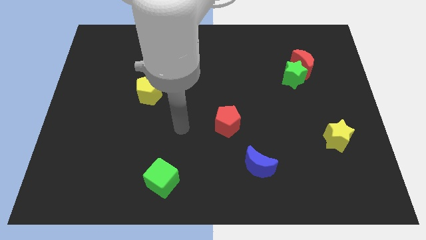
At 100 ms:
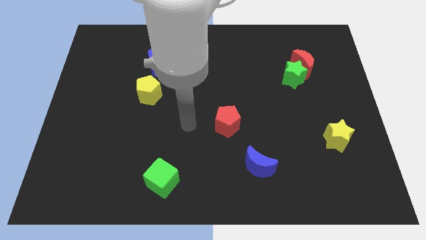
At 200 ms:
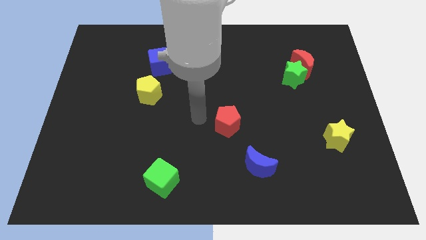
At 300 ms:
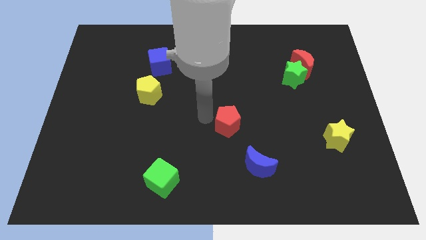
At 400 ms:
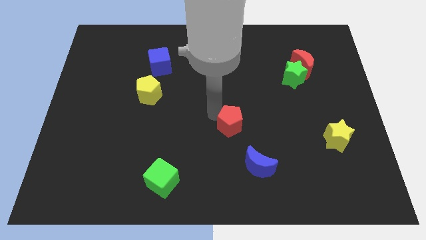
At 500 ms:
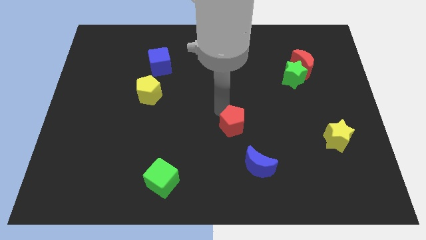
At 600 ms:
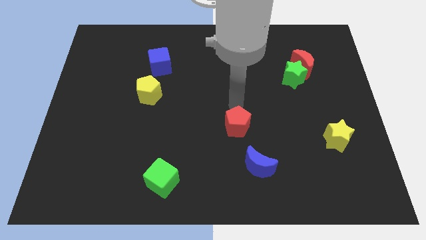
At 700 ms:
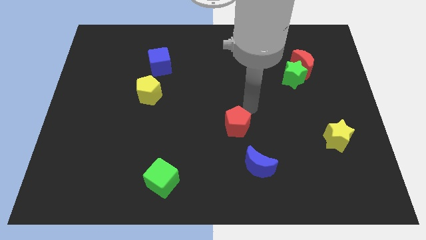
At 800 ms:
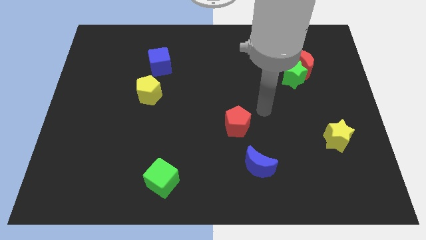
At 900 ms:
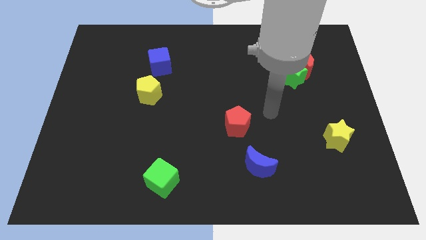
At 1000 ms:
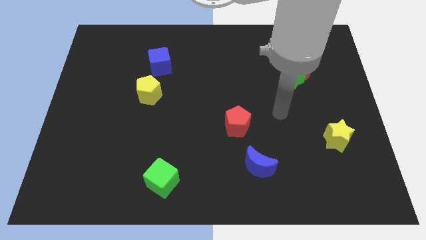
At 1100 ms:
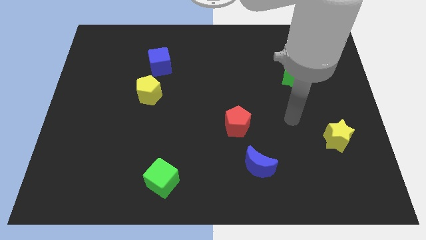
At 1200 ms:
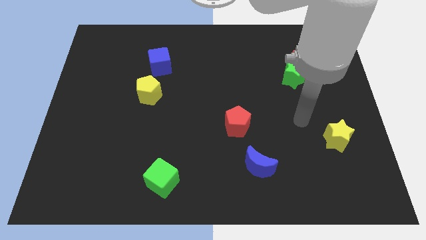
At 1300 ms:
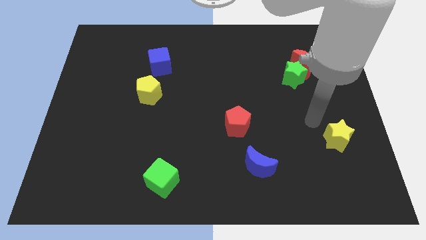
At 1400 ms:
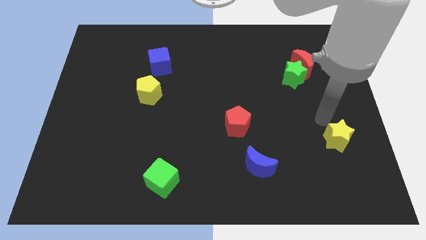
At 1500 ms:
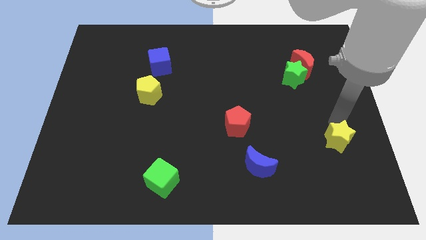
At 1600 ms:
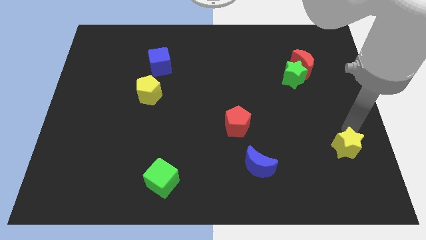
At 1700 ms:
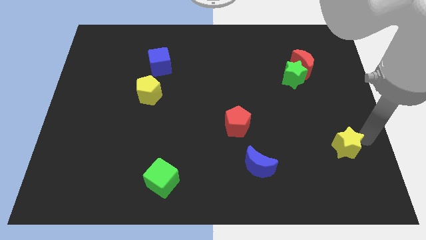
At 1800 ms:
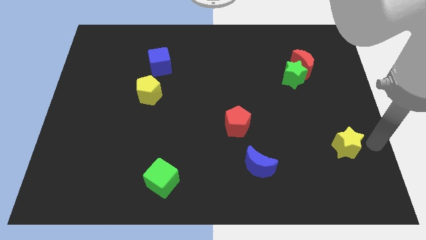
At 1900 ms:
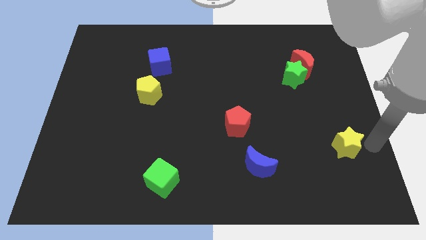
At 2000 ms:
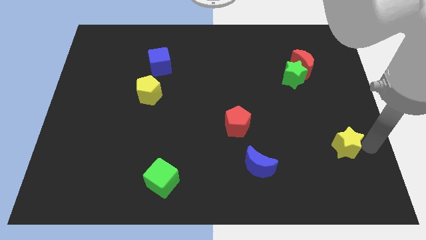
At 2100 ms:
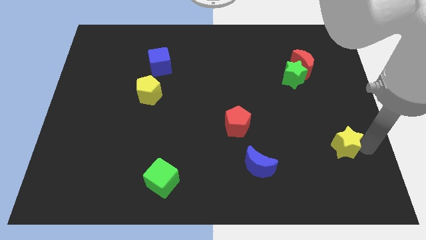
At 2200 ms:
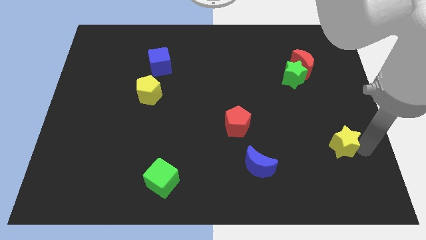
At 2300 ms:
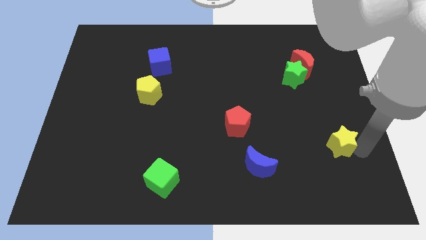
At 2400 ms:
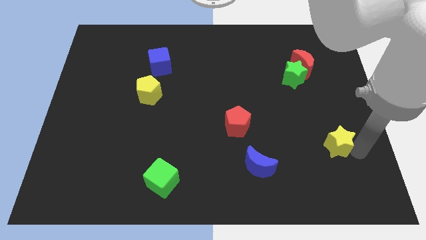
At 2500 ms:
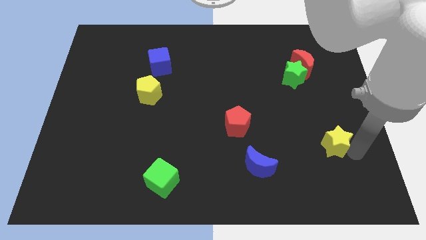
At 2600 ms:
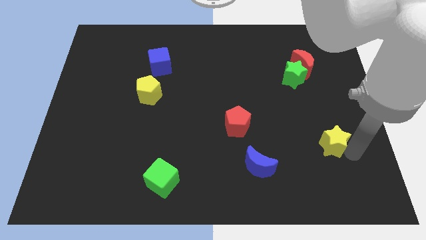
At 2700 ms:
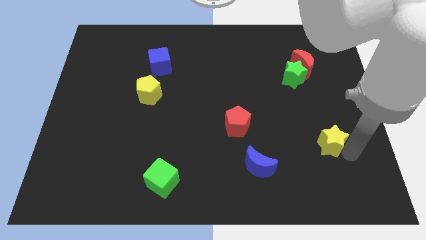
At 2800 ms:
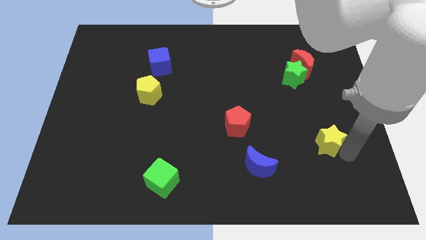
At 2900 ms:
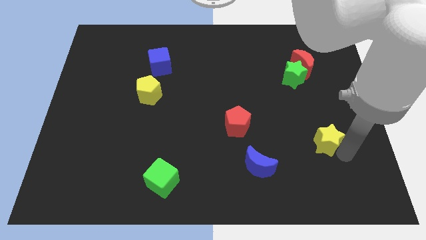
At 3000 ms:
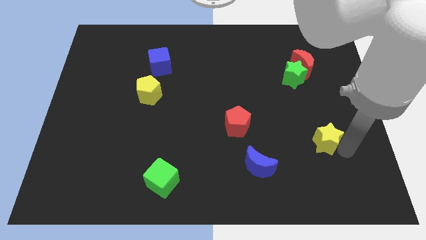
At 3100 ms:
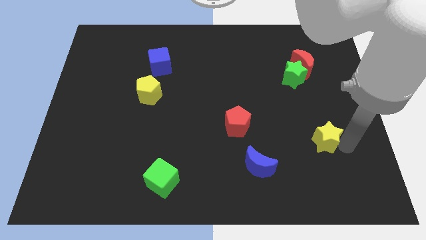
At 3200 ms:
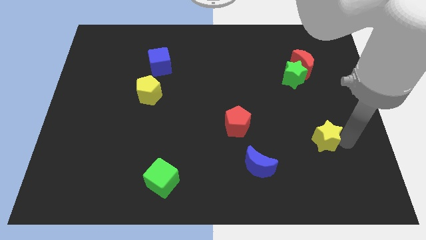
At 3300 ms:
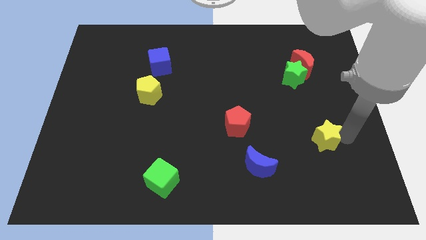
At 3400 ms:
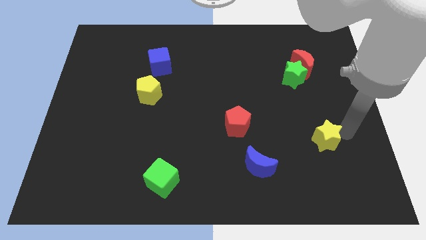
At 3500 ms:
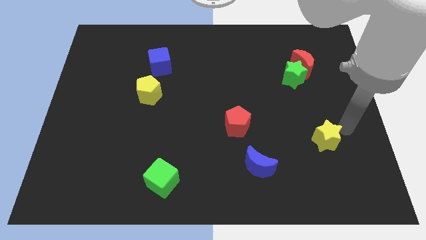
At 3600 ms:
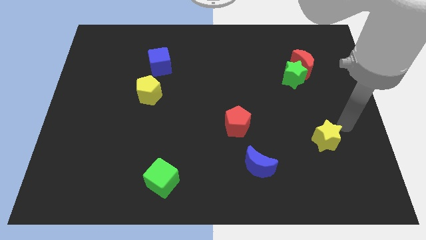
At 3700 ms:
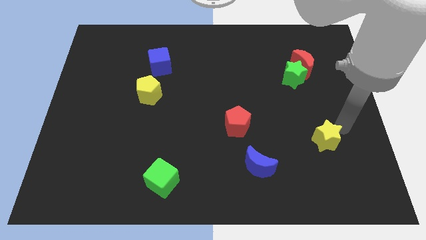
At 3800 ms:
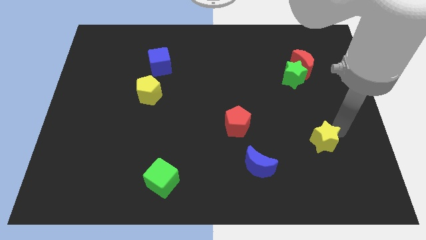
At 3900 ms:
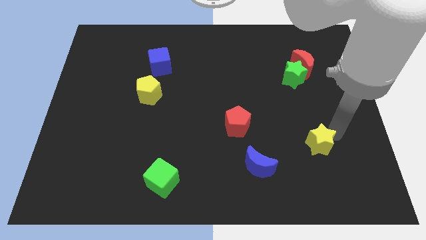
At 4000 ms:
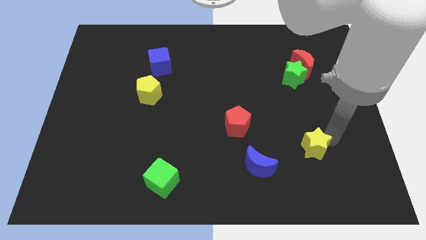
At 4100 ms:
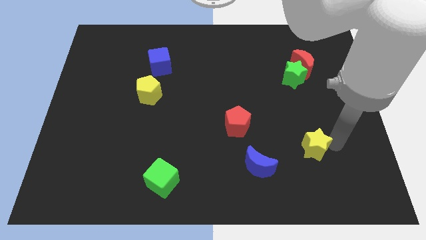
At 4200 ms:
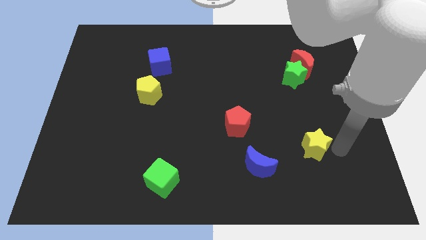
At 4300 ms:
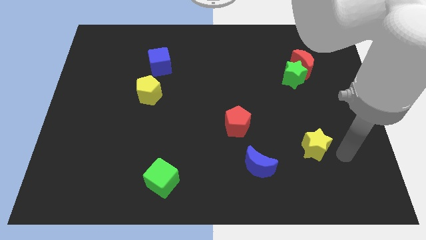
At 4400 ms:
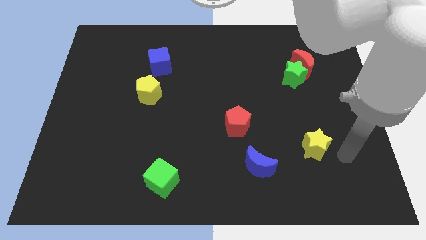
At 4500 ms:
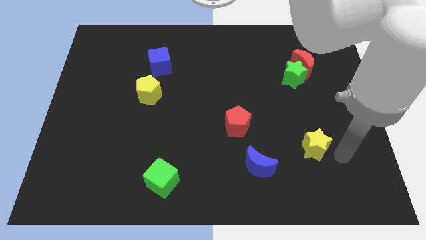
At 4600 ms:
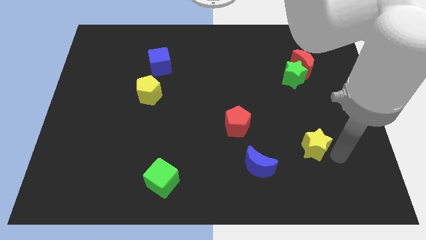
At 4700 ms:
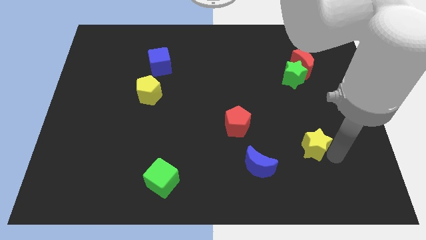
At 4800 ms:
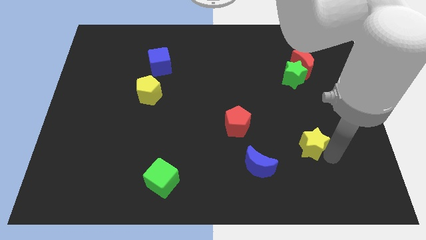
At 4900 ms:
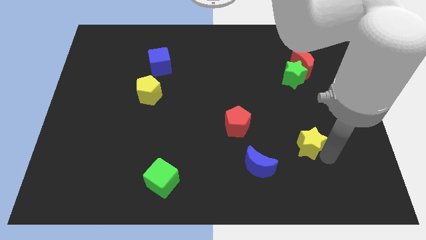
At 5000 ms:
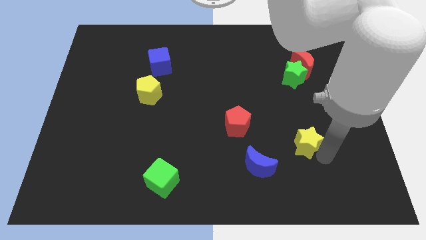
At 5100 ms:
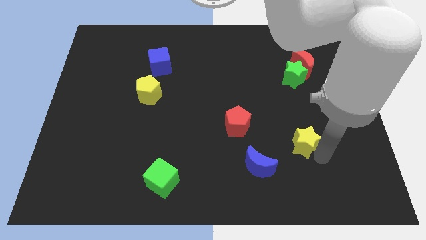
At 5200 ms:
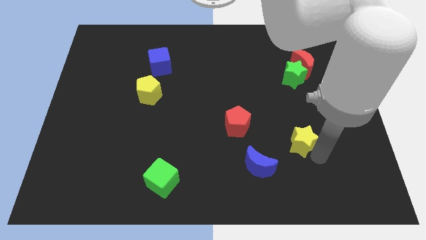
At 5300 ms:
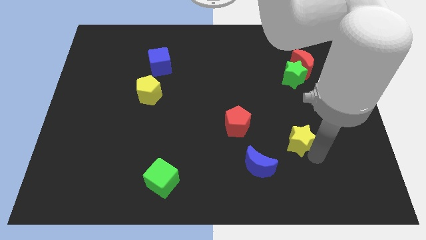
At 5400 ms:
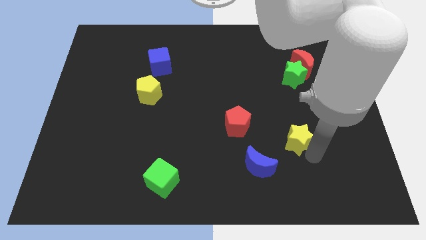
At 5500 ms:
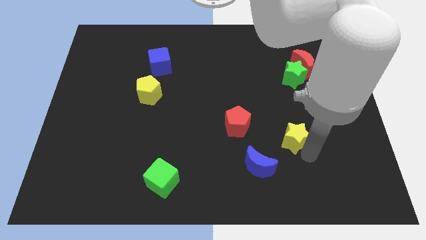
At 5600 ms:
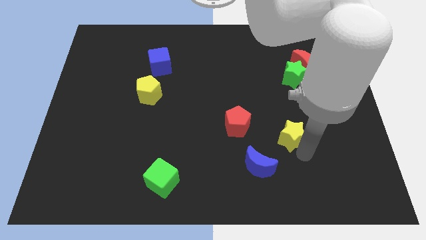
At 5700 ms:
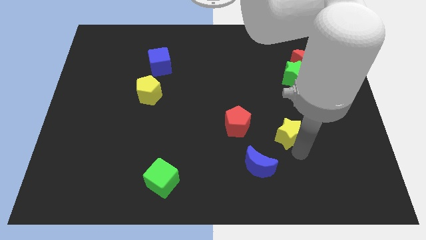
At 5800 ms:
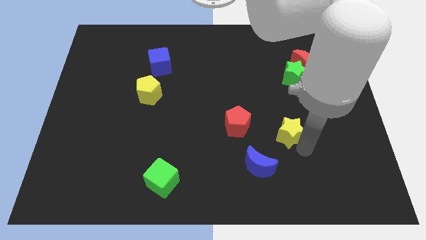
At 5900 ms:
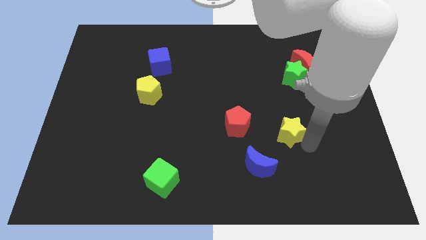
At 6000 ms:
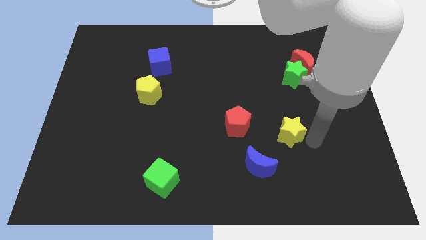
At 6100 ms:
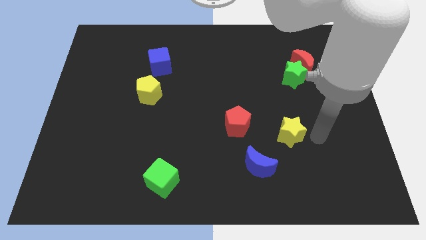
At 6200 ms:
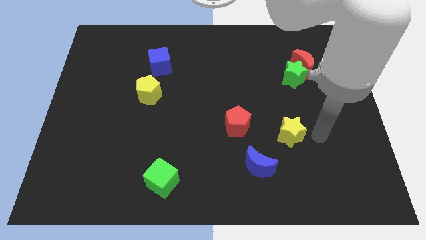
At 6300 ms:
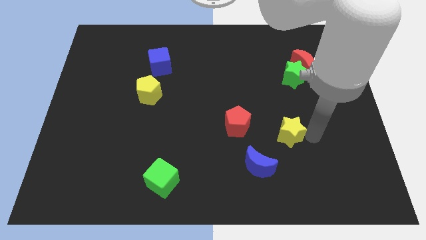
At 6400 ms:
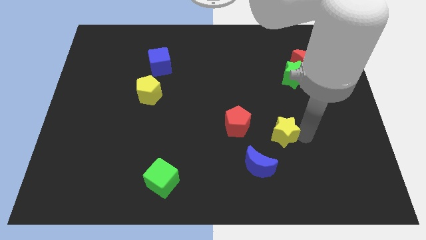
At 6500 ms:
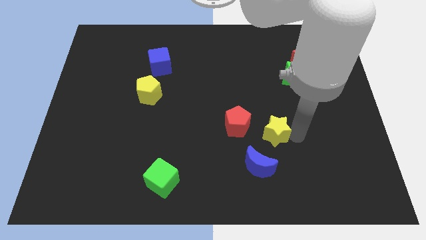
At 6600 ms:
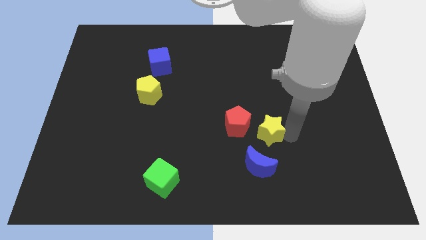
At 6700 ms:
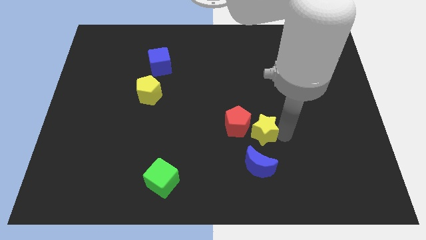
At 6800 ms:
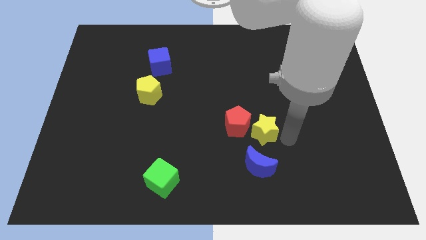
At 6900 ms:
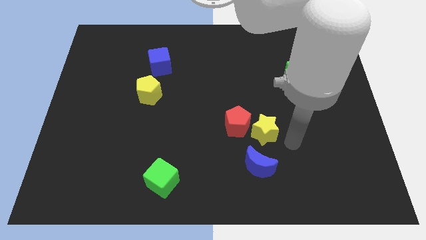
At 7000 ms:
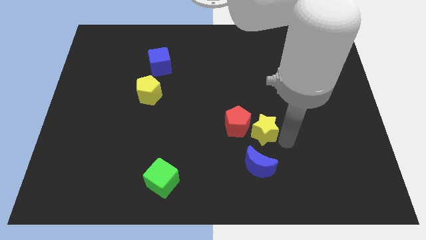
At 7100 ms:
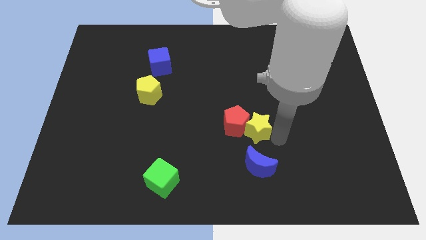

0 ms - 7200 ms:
put the yellow star towards the red pentagon

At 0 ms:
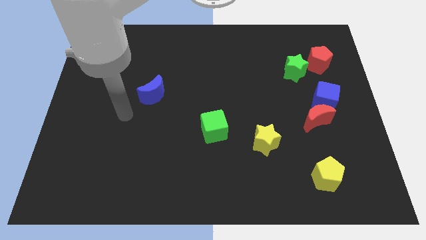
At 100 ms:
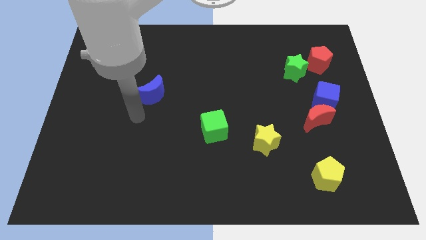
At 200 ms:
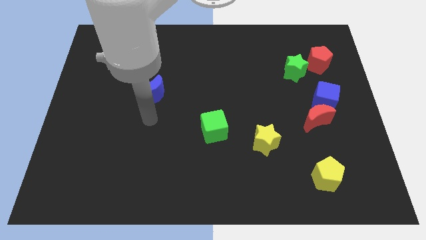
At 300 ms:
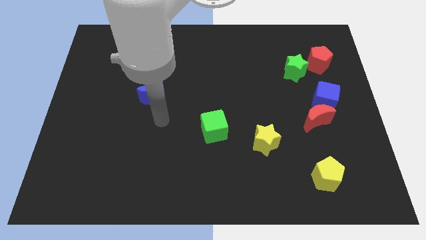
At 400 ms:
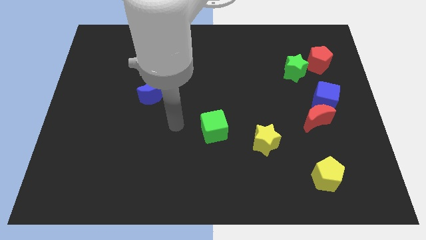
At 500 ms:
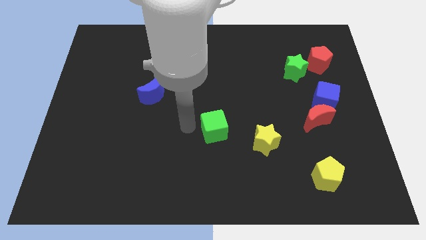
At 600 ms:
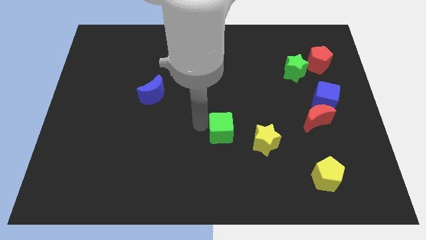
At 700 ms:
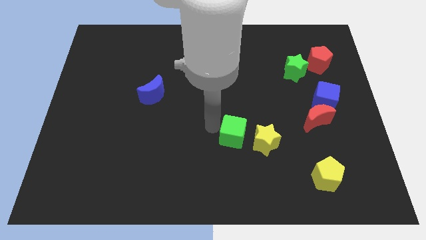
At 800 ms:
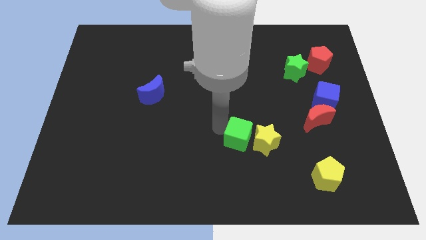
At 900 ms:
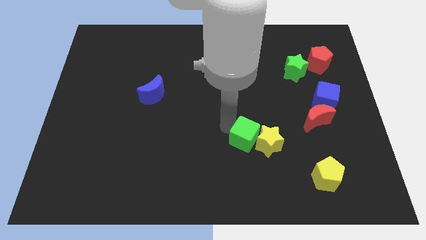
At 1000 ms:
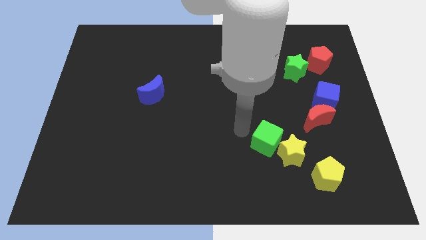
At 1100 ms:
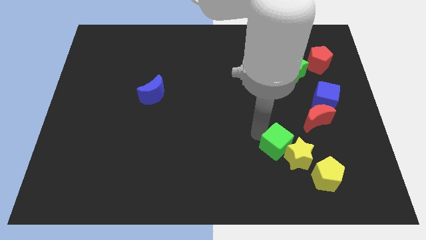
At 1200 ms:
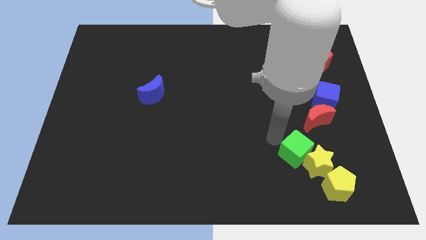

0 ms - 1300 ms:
push the yellow star to the yellow pentagon

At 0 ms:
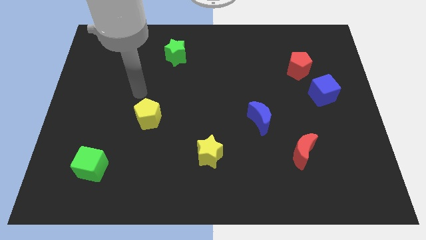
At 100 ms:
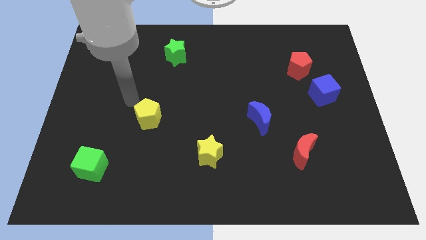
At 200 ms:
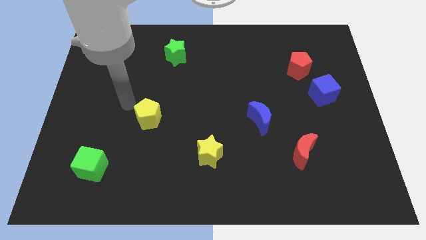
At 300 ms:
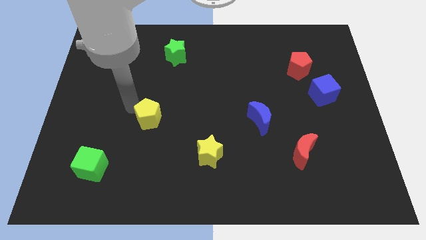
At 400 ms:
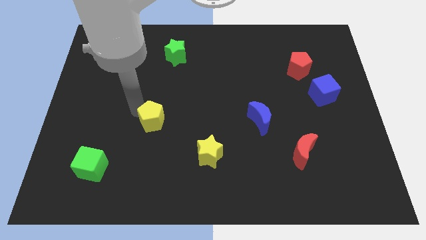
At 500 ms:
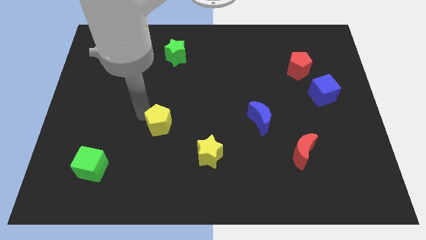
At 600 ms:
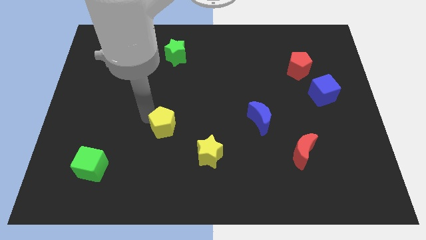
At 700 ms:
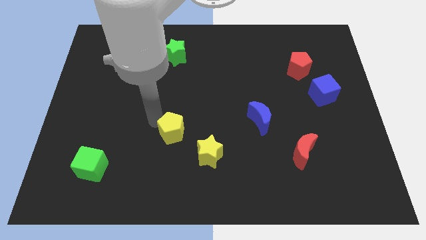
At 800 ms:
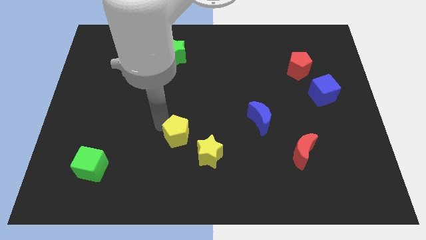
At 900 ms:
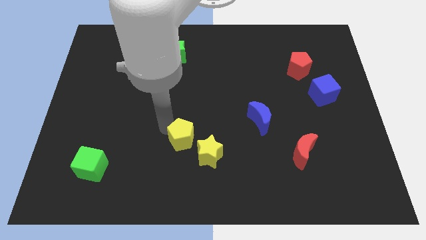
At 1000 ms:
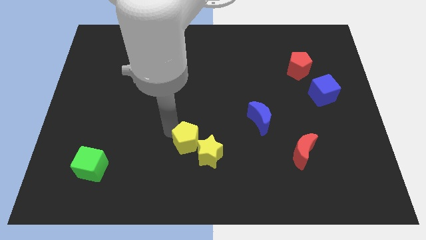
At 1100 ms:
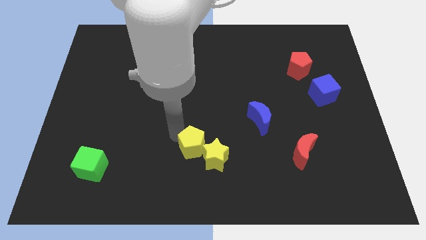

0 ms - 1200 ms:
move the yellow pentagon to the yellow star
